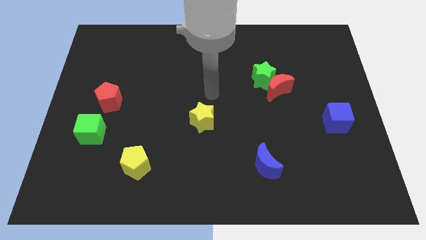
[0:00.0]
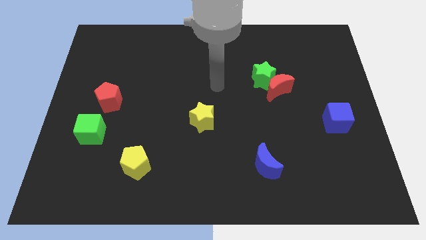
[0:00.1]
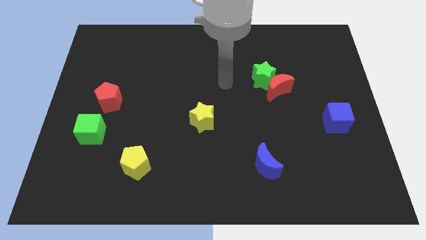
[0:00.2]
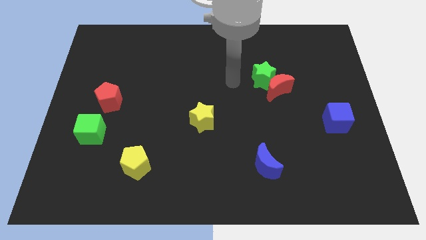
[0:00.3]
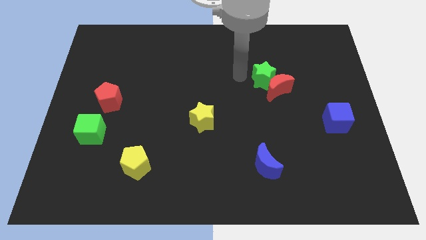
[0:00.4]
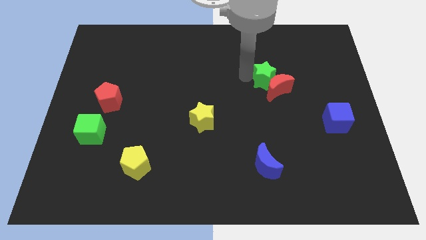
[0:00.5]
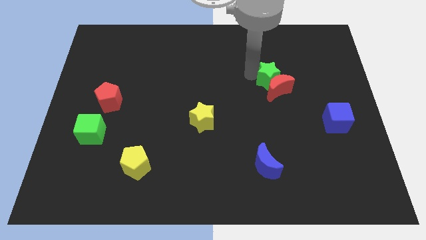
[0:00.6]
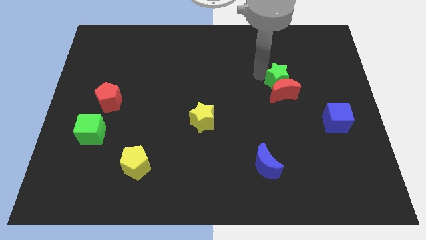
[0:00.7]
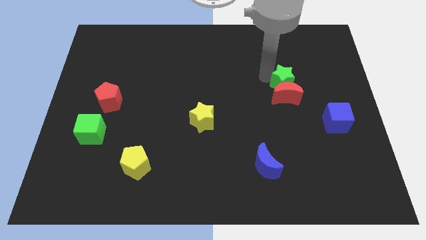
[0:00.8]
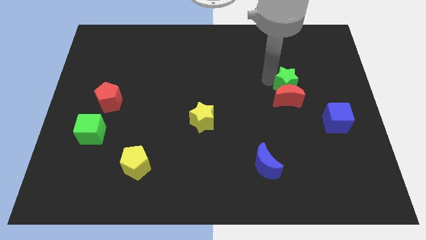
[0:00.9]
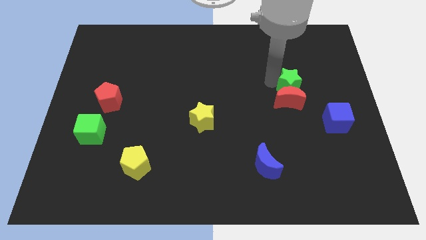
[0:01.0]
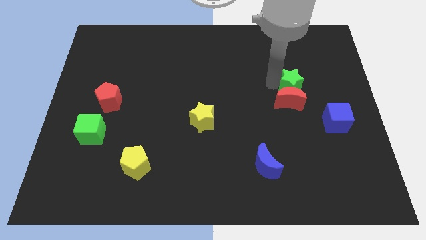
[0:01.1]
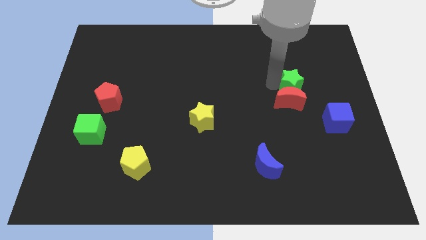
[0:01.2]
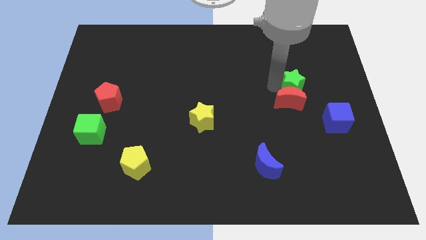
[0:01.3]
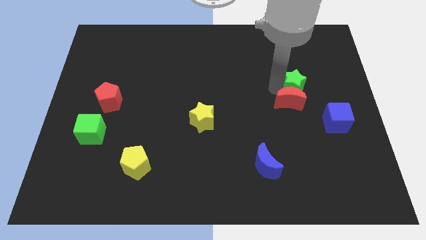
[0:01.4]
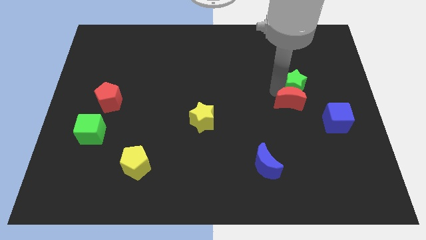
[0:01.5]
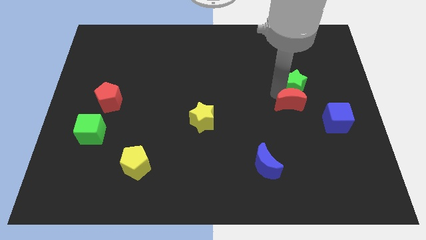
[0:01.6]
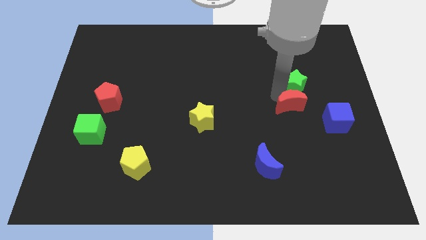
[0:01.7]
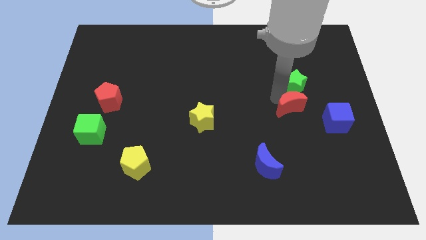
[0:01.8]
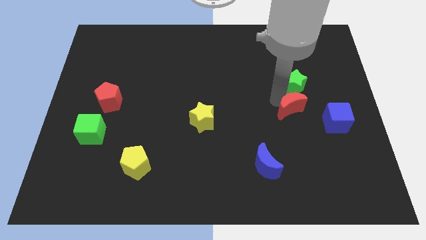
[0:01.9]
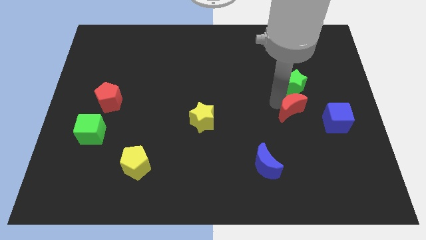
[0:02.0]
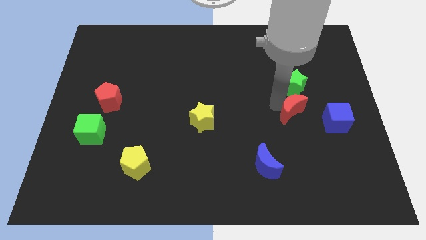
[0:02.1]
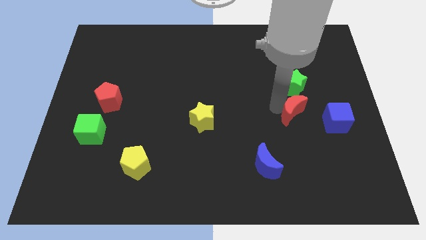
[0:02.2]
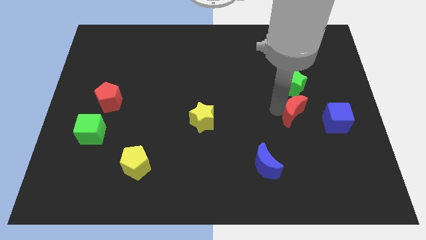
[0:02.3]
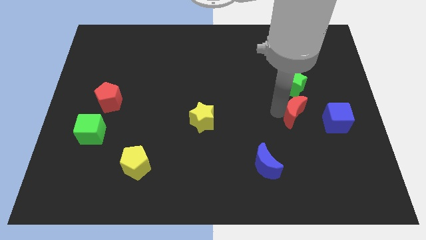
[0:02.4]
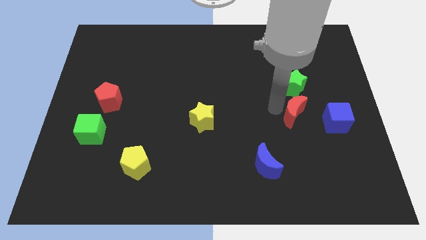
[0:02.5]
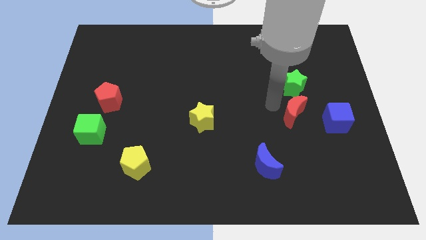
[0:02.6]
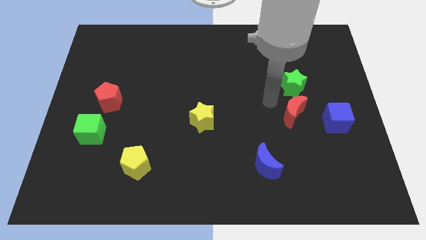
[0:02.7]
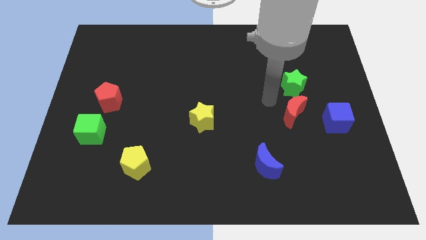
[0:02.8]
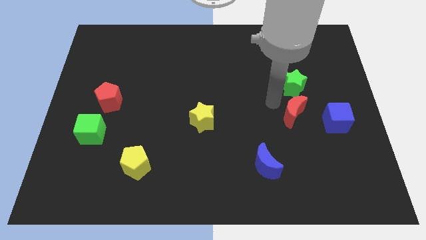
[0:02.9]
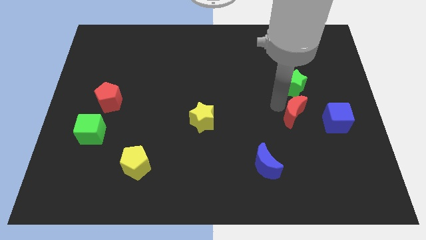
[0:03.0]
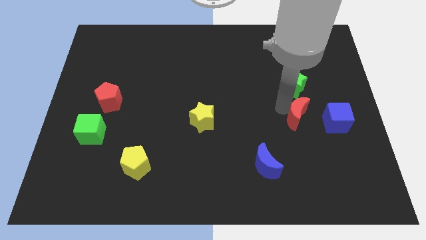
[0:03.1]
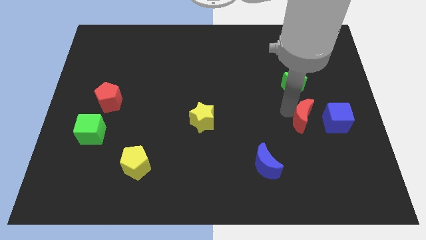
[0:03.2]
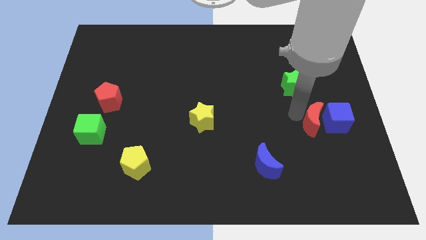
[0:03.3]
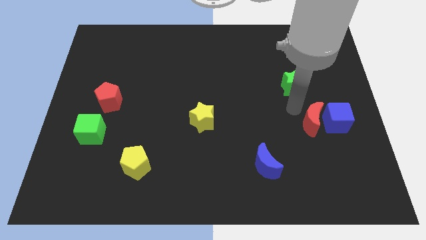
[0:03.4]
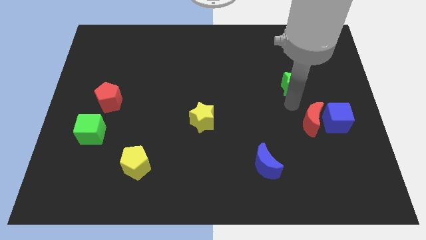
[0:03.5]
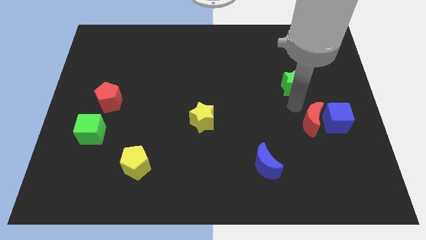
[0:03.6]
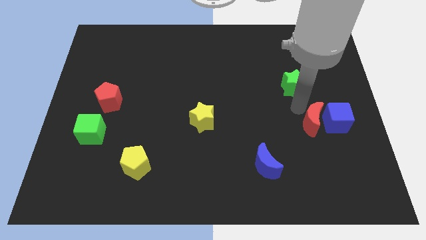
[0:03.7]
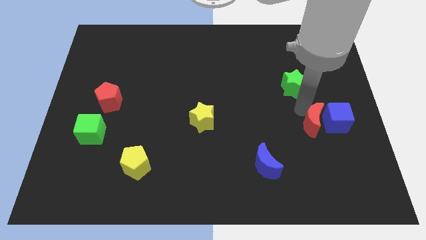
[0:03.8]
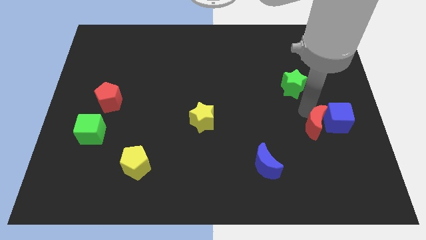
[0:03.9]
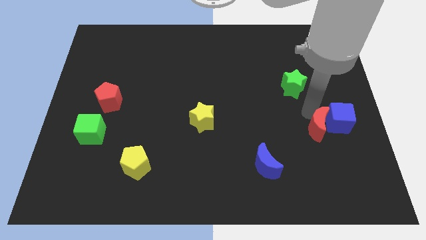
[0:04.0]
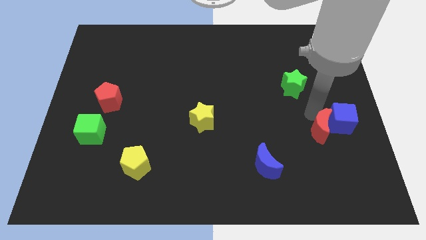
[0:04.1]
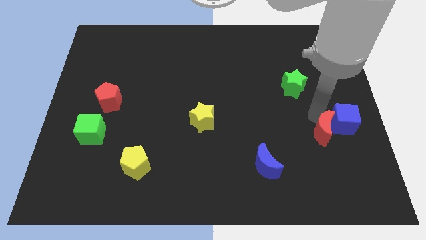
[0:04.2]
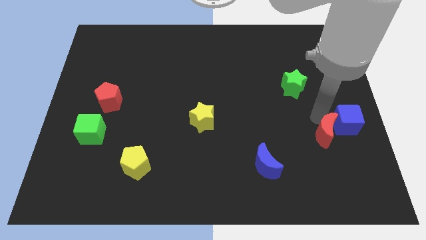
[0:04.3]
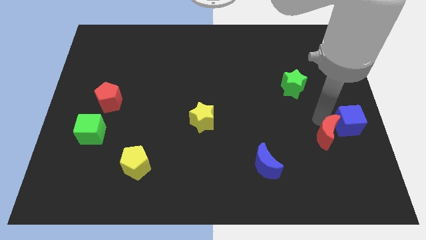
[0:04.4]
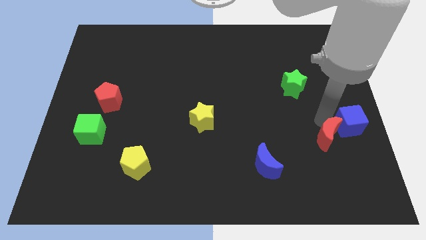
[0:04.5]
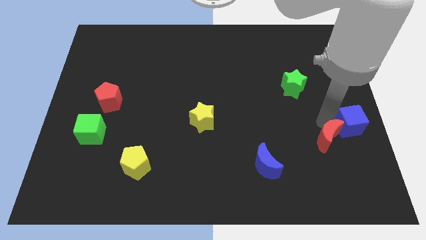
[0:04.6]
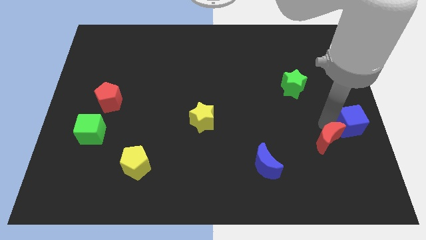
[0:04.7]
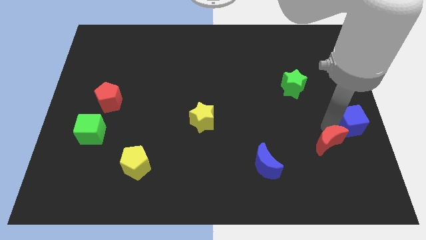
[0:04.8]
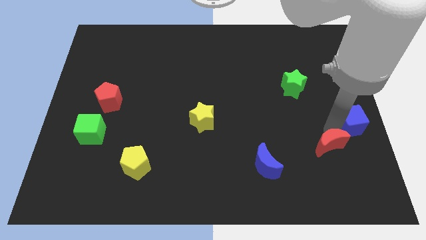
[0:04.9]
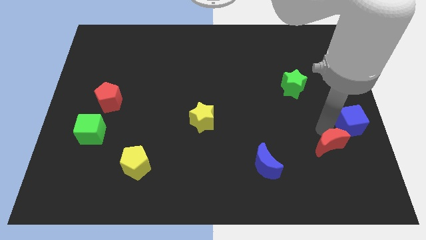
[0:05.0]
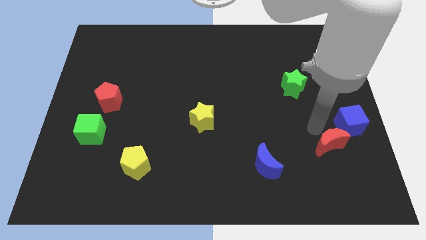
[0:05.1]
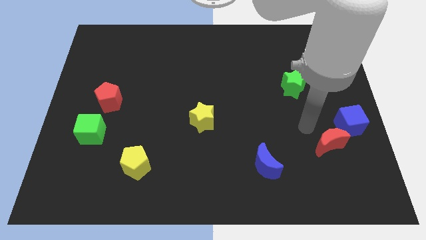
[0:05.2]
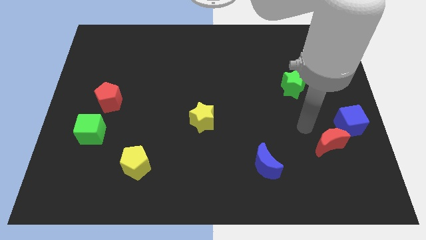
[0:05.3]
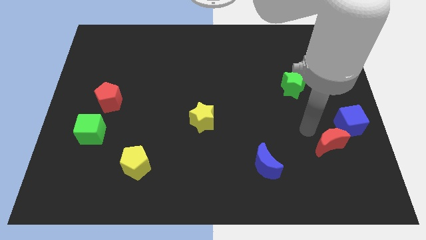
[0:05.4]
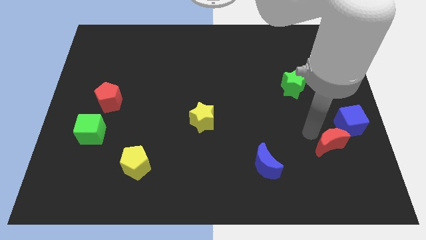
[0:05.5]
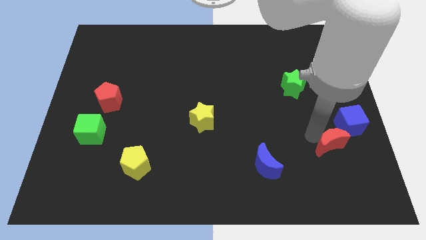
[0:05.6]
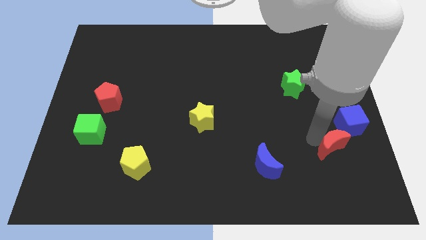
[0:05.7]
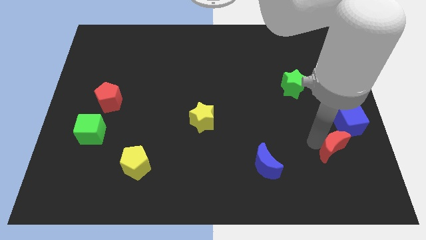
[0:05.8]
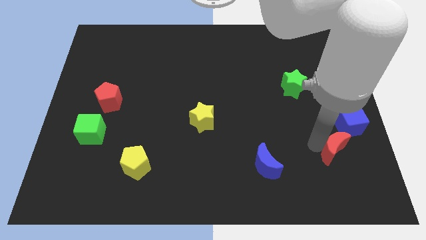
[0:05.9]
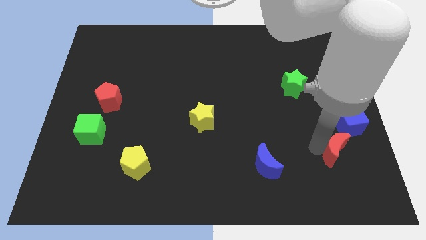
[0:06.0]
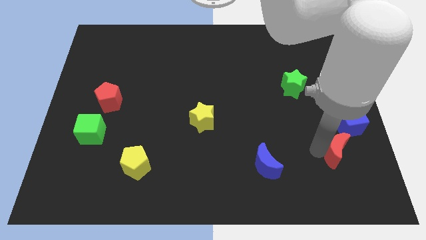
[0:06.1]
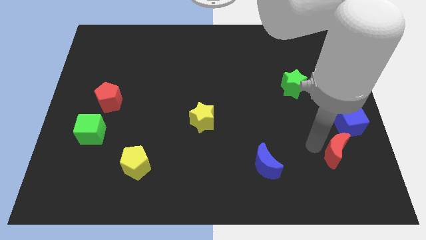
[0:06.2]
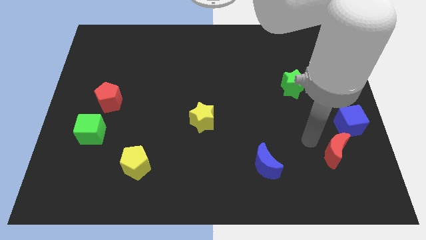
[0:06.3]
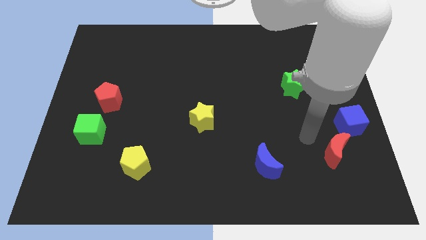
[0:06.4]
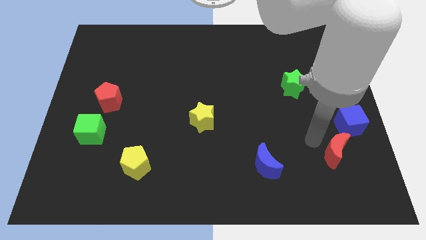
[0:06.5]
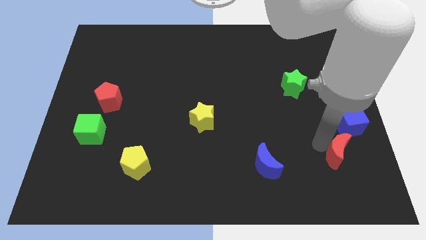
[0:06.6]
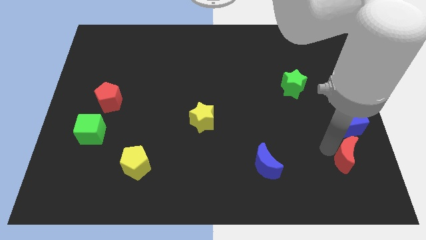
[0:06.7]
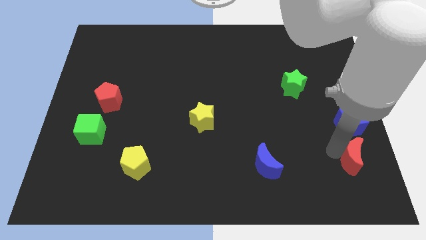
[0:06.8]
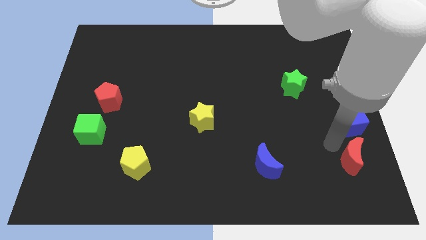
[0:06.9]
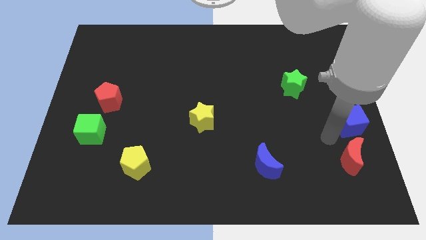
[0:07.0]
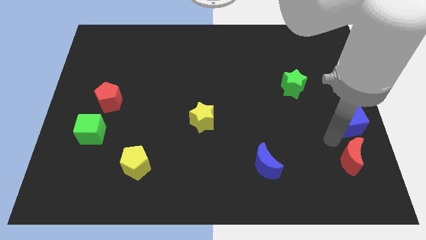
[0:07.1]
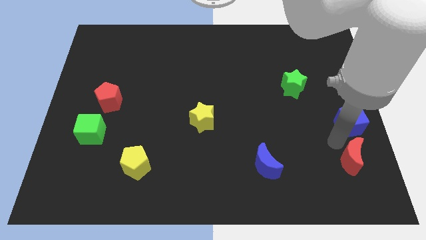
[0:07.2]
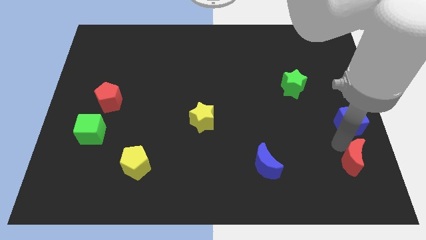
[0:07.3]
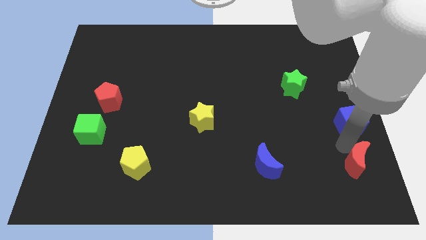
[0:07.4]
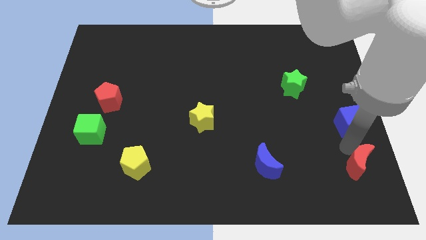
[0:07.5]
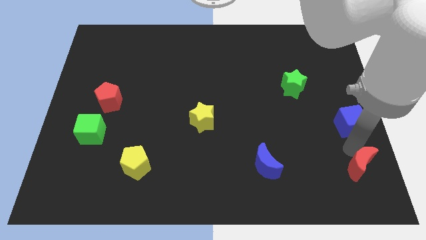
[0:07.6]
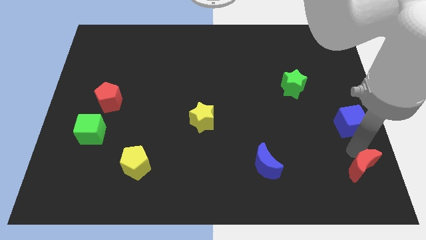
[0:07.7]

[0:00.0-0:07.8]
slide the red moon to the bottom right
